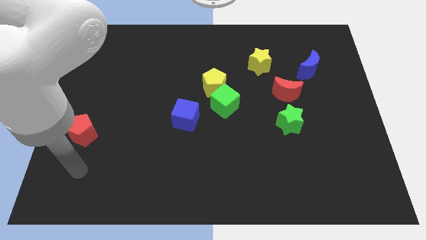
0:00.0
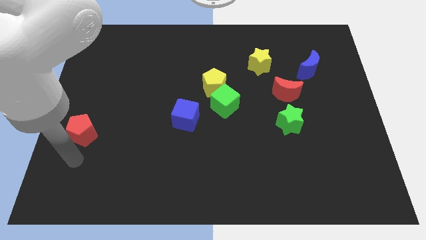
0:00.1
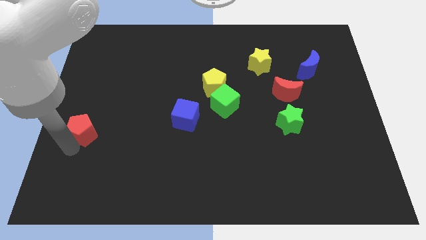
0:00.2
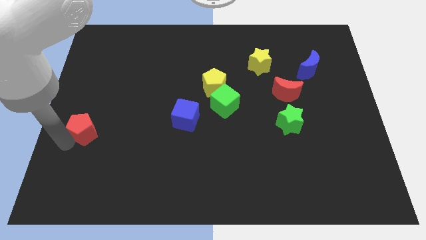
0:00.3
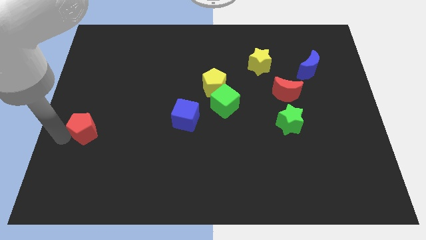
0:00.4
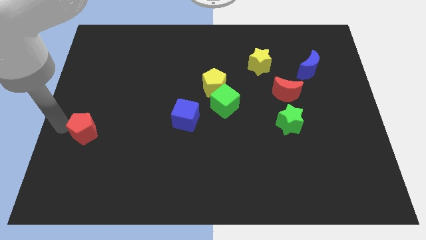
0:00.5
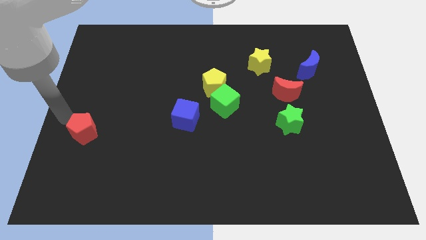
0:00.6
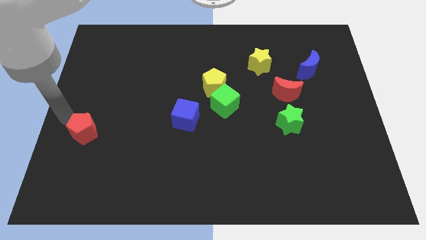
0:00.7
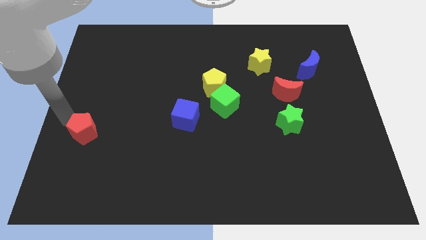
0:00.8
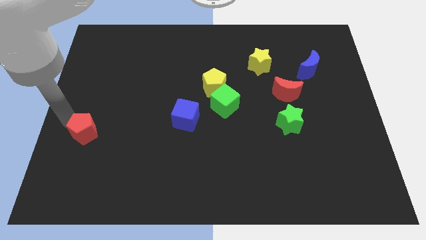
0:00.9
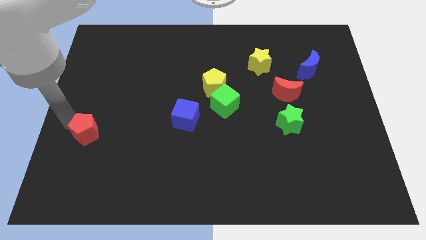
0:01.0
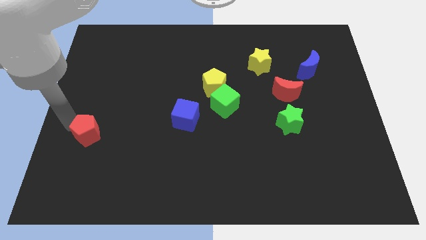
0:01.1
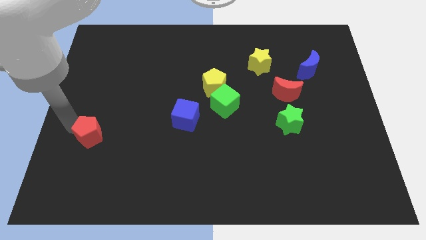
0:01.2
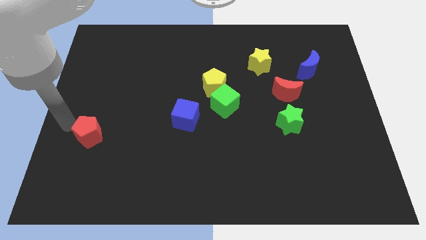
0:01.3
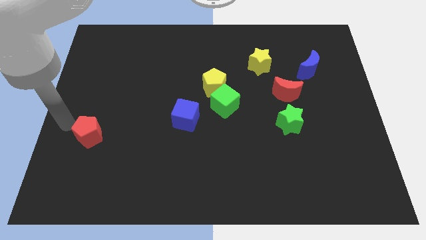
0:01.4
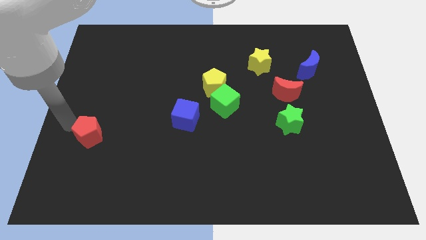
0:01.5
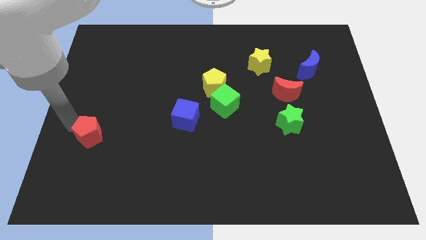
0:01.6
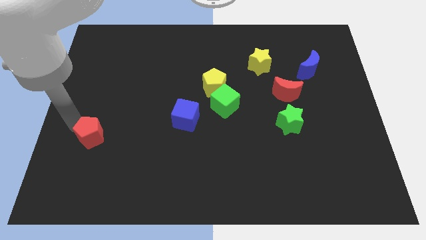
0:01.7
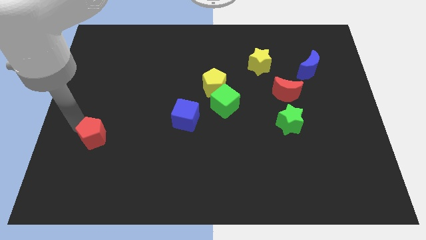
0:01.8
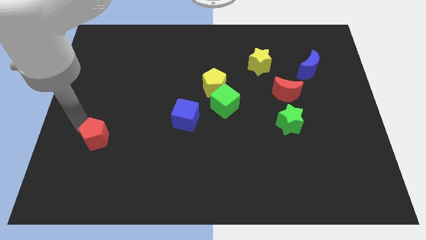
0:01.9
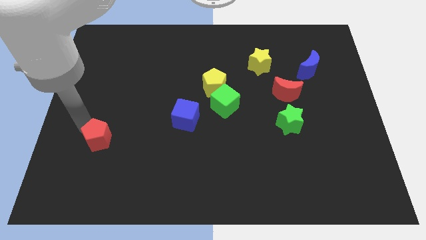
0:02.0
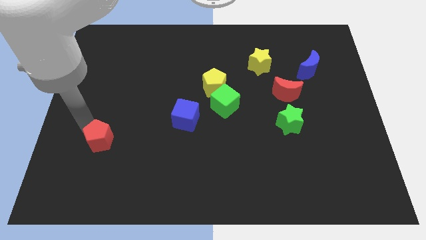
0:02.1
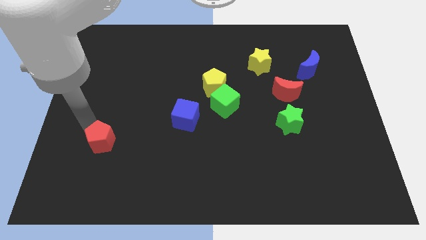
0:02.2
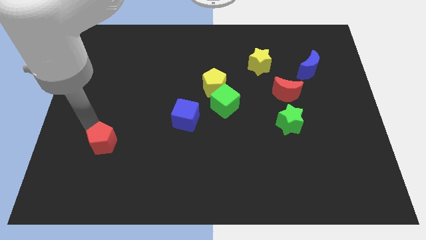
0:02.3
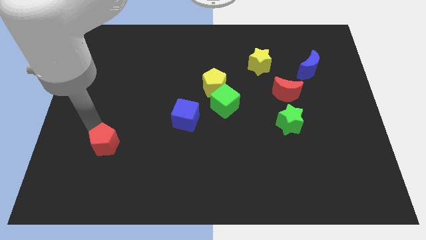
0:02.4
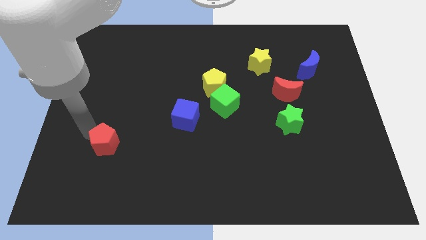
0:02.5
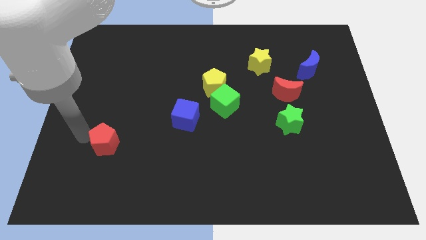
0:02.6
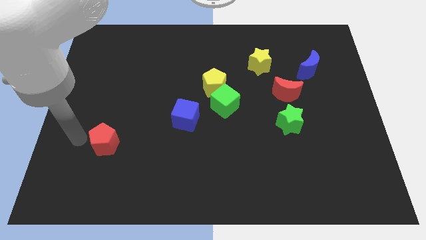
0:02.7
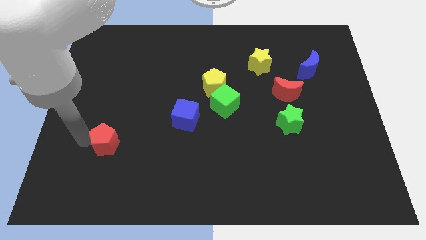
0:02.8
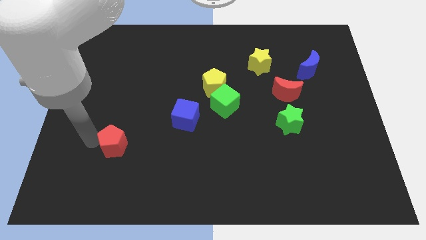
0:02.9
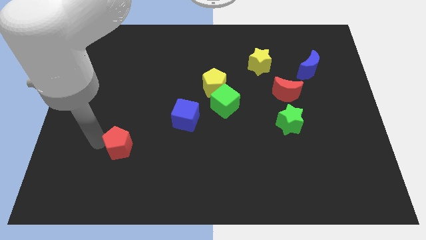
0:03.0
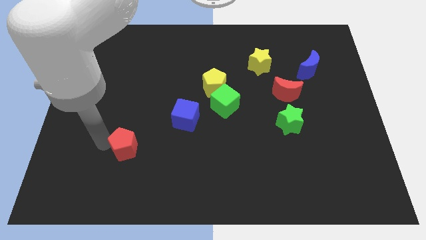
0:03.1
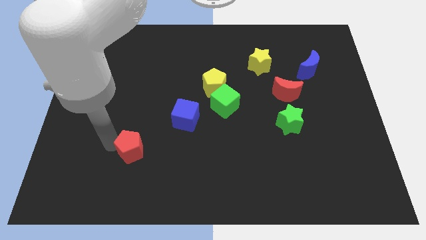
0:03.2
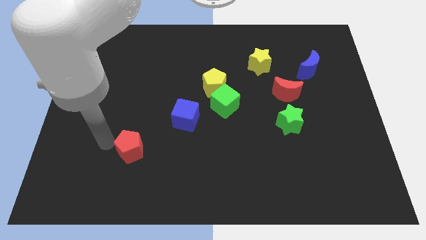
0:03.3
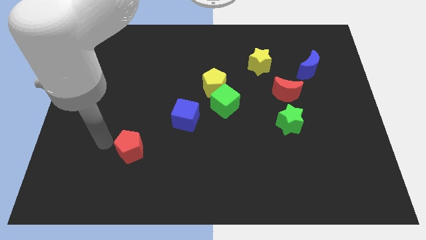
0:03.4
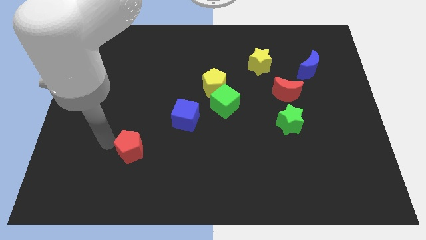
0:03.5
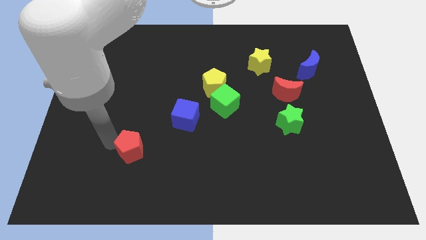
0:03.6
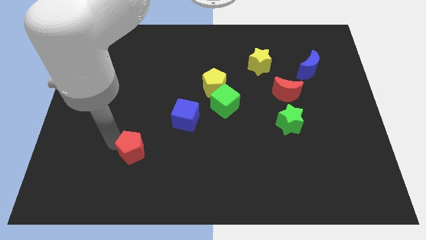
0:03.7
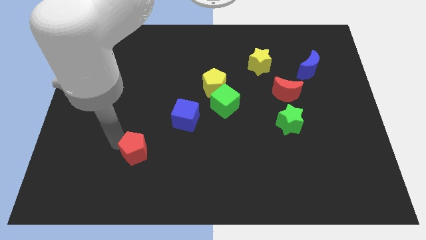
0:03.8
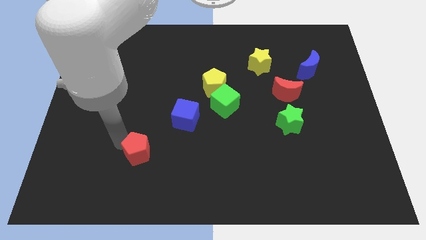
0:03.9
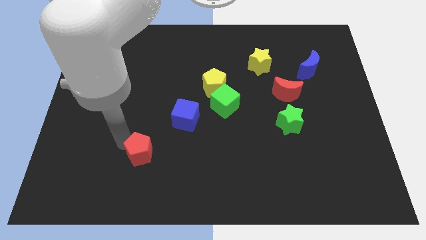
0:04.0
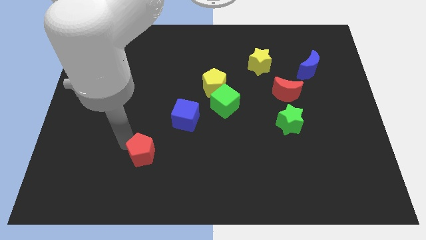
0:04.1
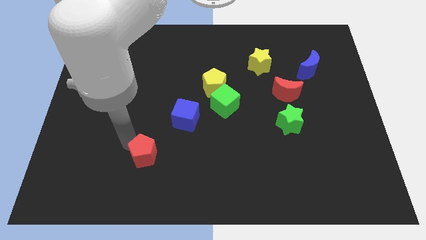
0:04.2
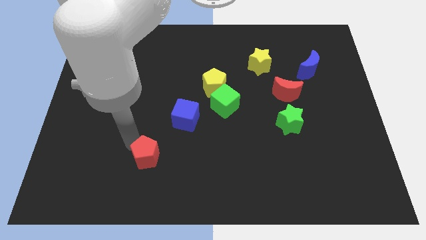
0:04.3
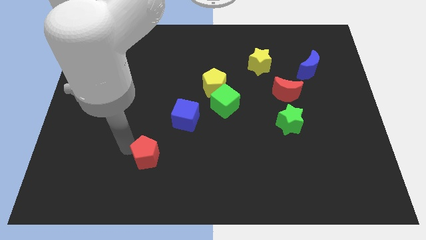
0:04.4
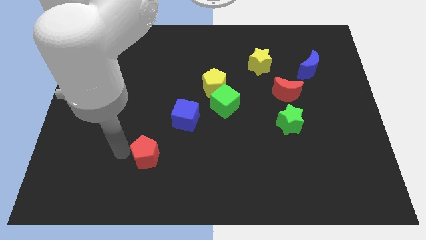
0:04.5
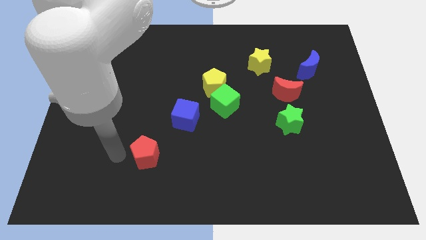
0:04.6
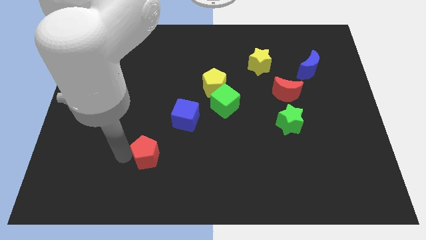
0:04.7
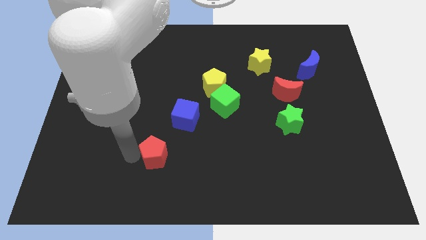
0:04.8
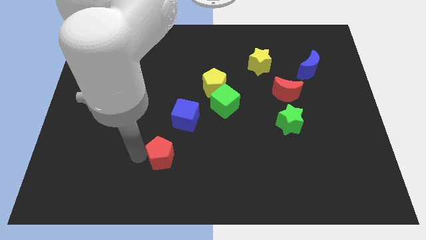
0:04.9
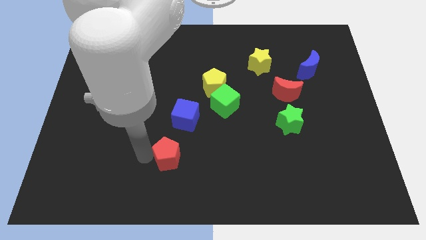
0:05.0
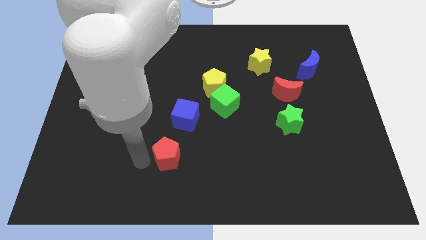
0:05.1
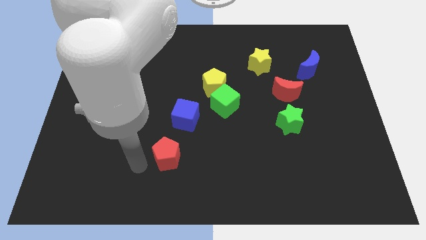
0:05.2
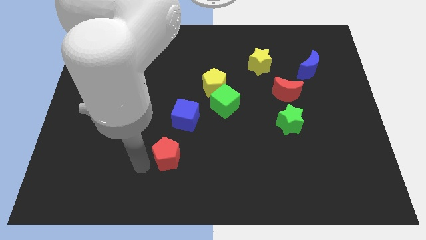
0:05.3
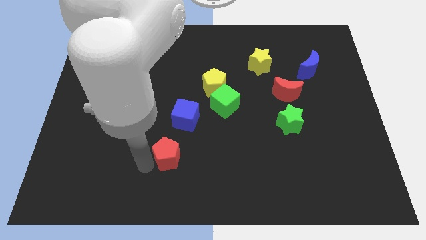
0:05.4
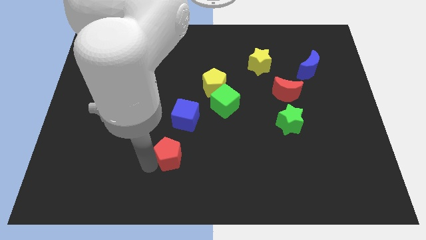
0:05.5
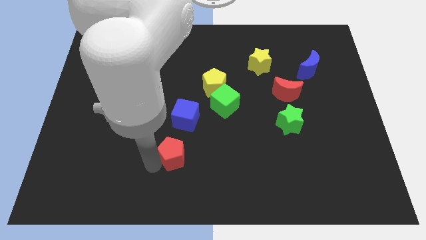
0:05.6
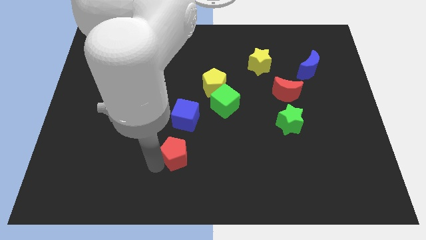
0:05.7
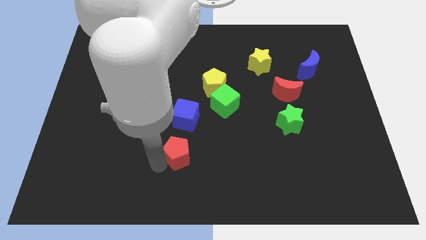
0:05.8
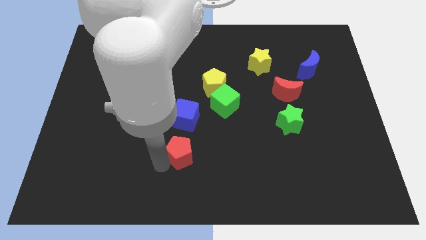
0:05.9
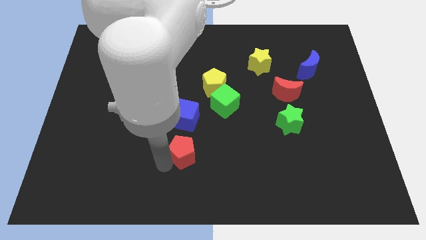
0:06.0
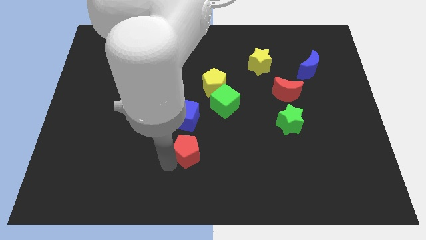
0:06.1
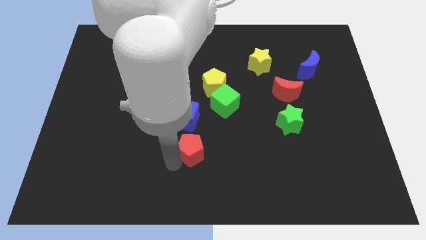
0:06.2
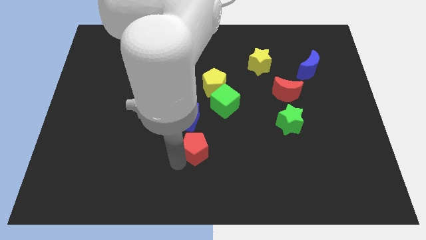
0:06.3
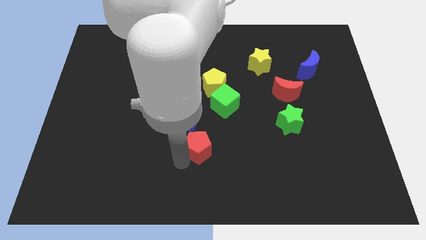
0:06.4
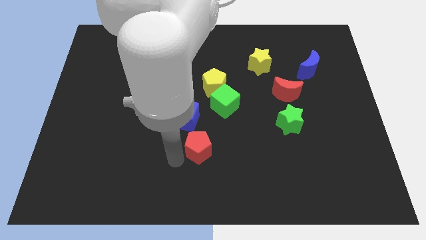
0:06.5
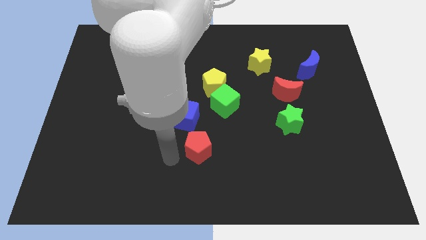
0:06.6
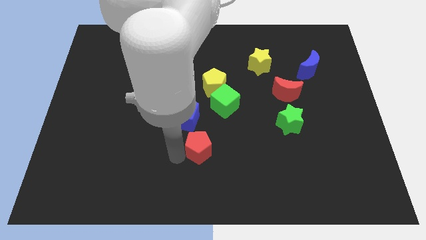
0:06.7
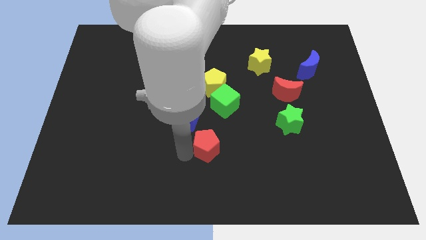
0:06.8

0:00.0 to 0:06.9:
push the red pentagon below the green cube
